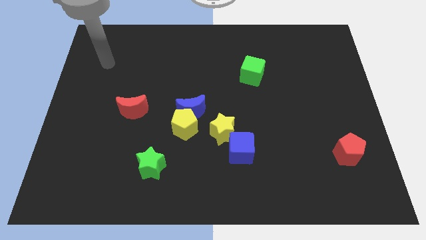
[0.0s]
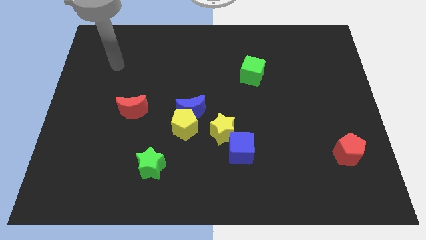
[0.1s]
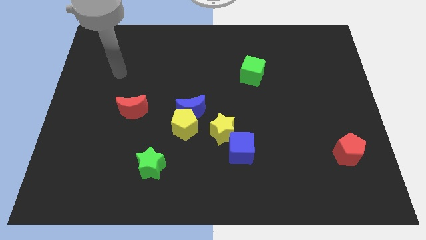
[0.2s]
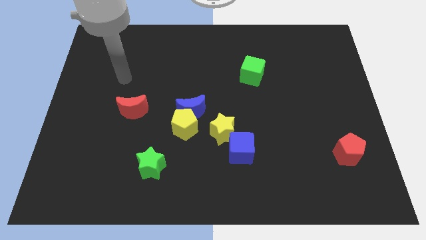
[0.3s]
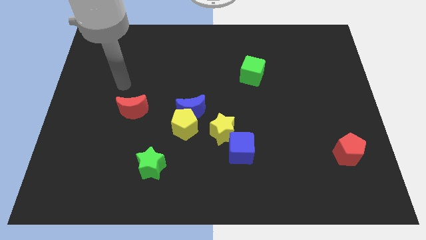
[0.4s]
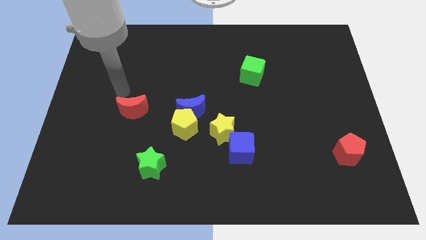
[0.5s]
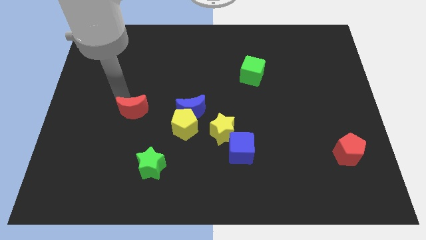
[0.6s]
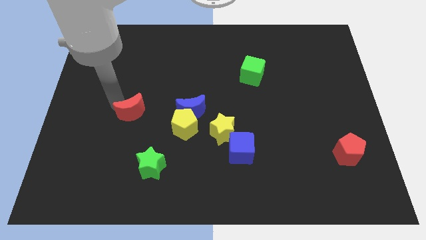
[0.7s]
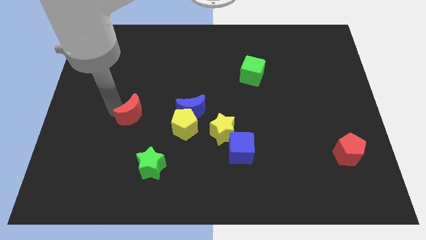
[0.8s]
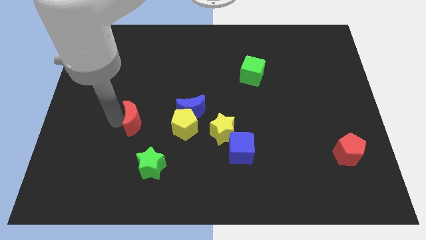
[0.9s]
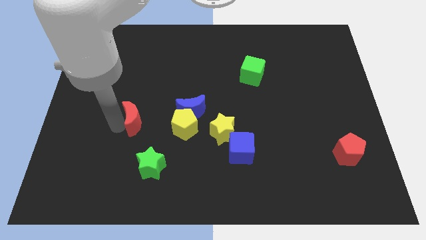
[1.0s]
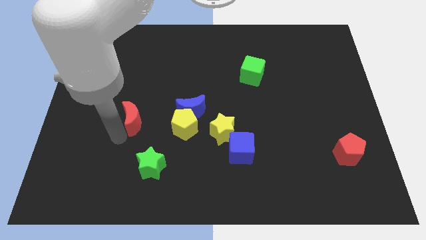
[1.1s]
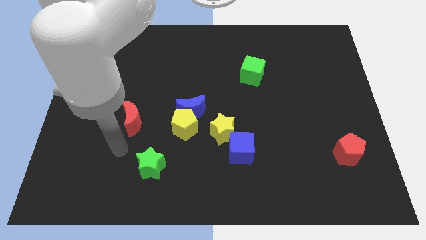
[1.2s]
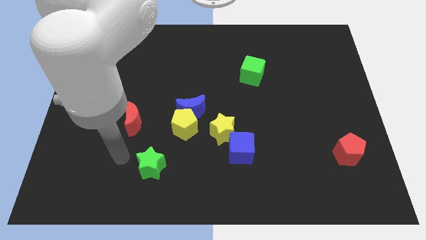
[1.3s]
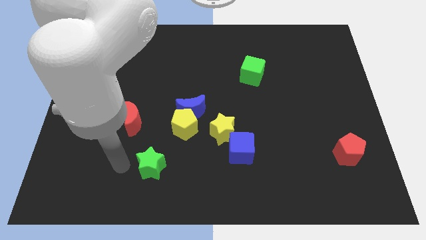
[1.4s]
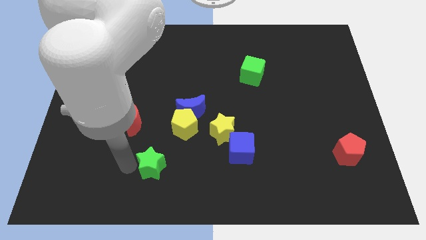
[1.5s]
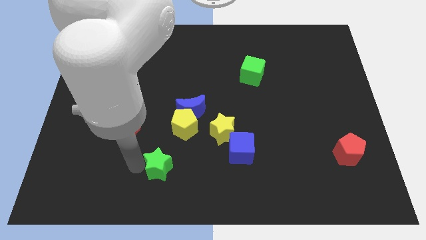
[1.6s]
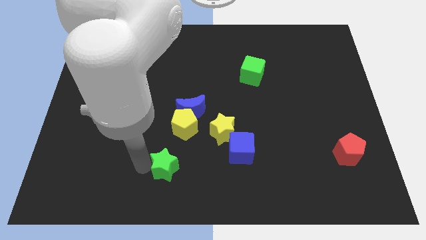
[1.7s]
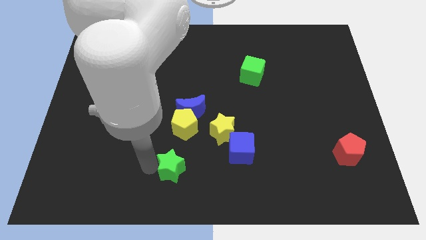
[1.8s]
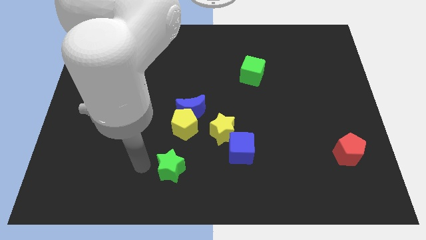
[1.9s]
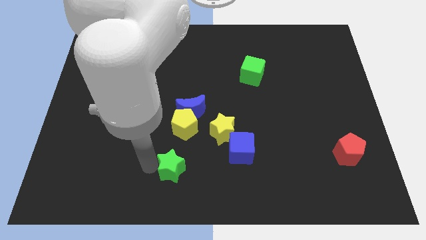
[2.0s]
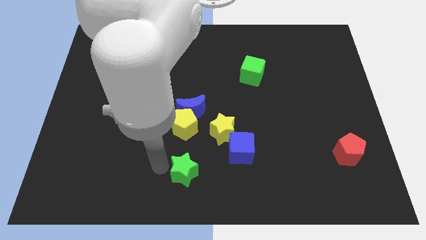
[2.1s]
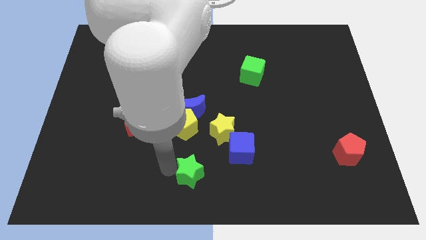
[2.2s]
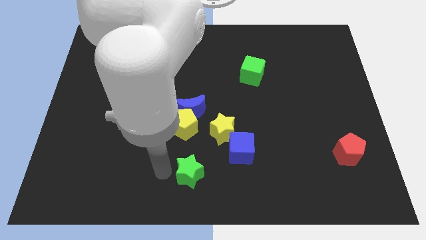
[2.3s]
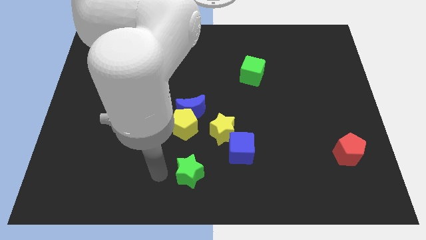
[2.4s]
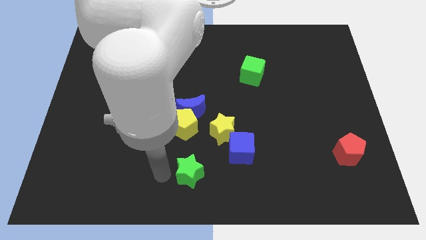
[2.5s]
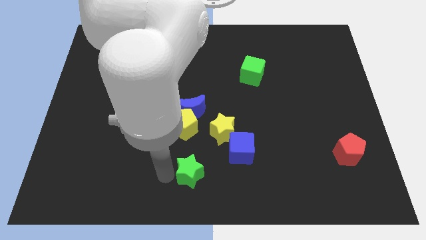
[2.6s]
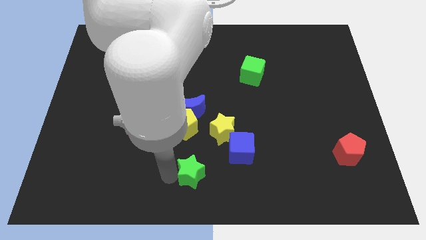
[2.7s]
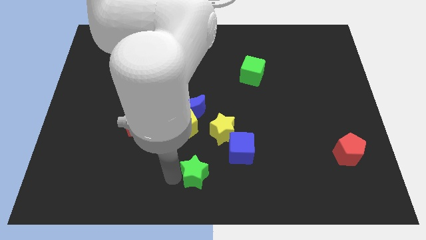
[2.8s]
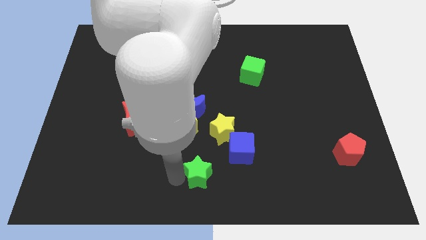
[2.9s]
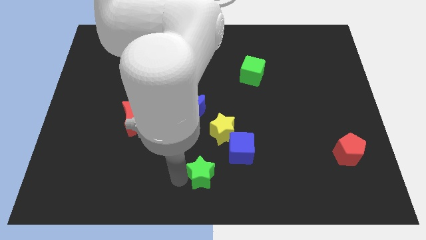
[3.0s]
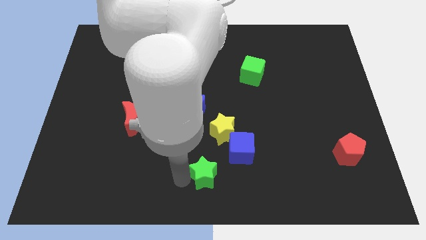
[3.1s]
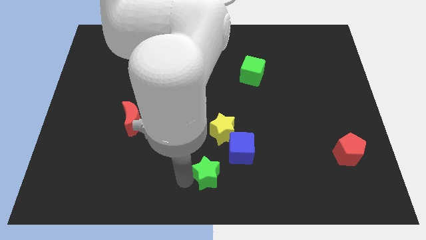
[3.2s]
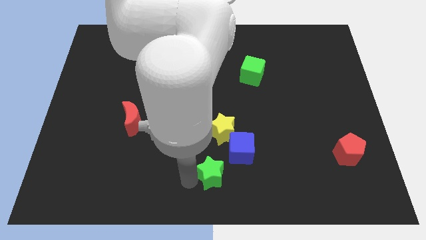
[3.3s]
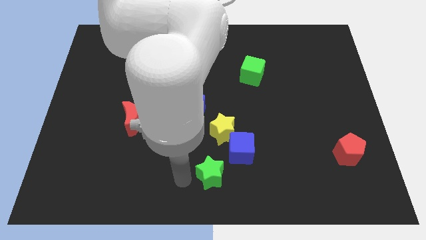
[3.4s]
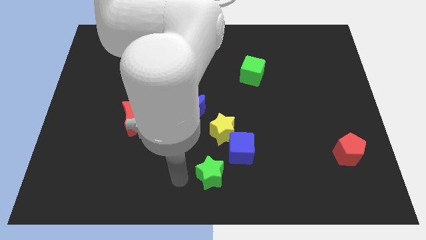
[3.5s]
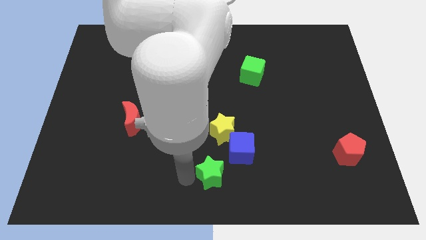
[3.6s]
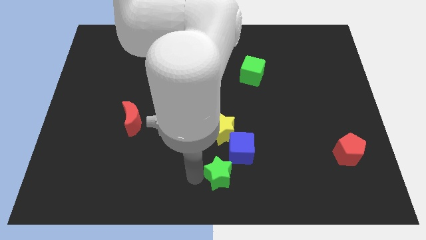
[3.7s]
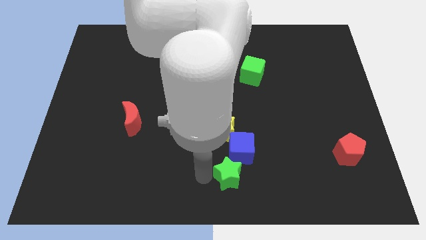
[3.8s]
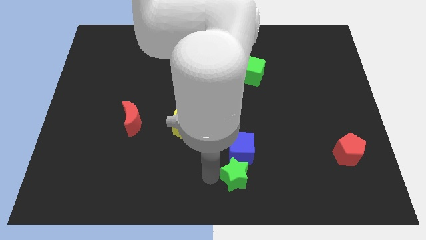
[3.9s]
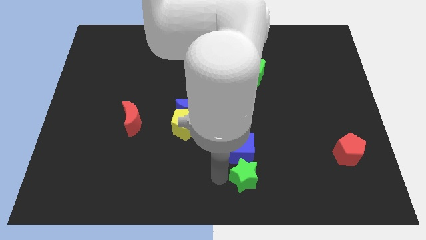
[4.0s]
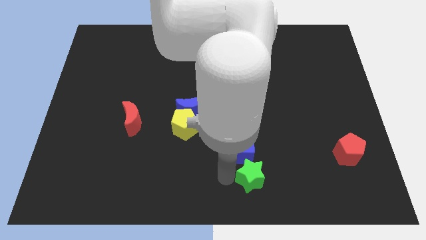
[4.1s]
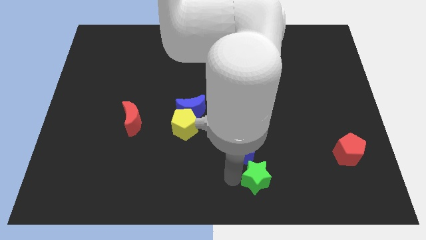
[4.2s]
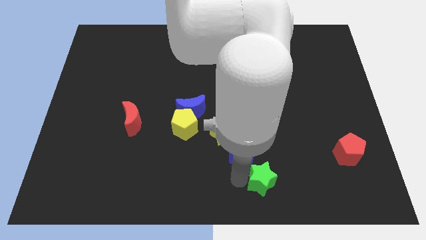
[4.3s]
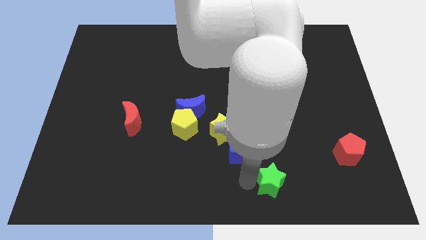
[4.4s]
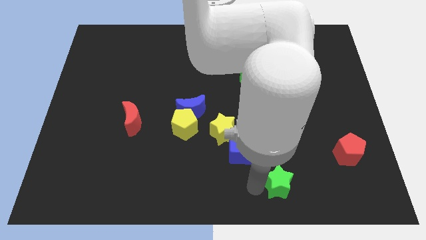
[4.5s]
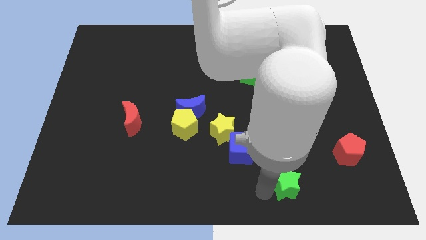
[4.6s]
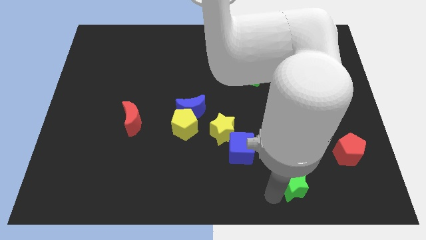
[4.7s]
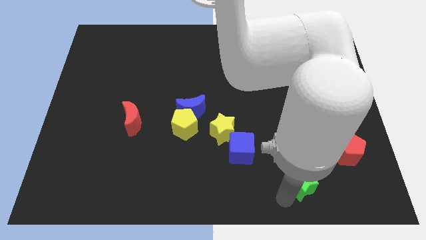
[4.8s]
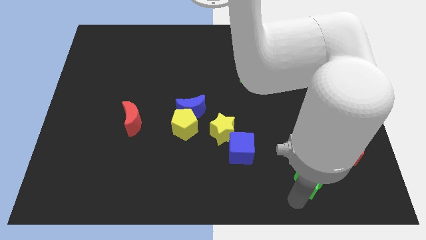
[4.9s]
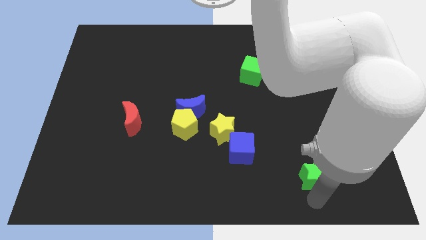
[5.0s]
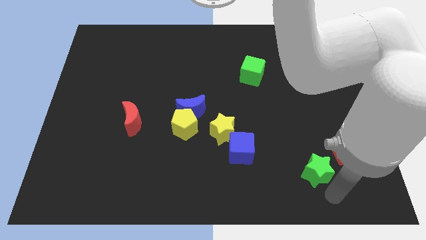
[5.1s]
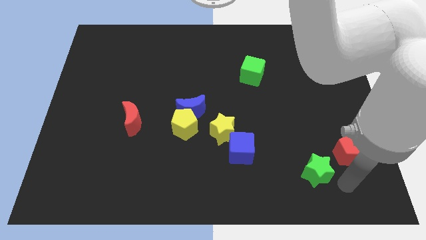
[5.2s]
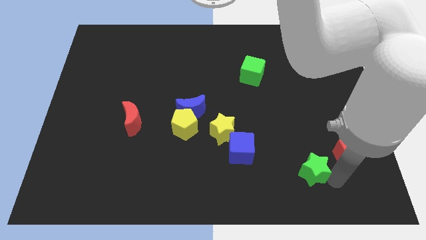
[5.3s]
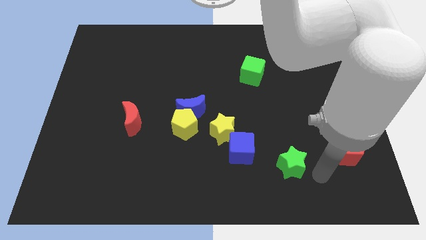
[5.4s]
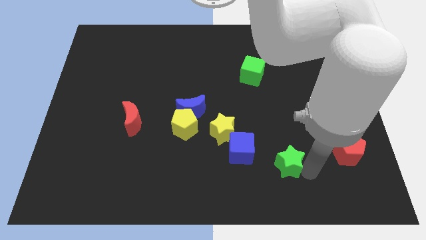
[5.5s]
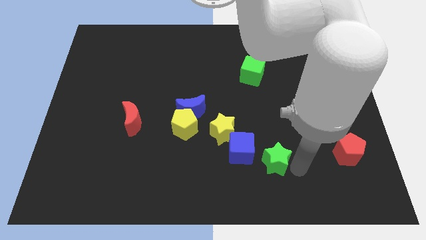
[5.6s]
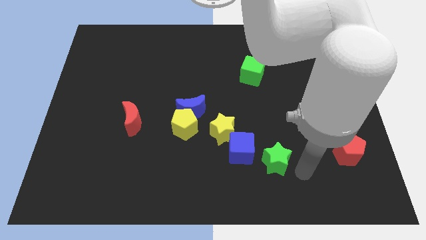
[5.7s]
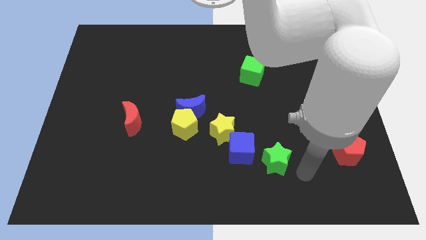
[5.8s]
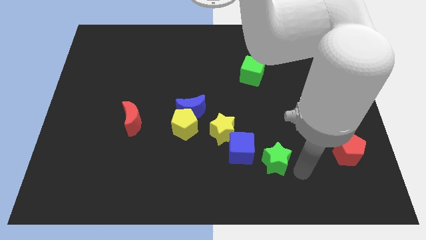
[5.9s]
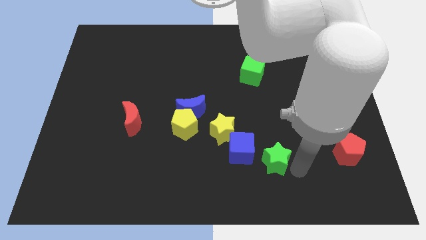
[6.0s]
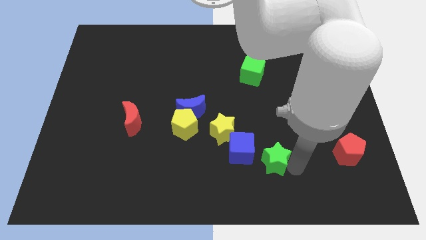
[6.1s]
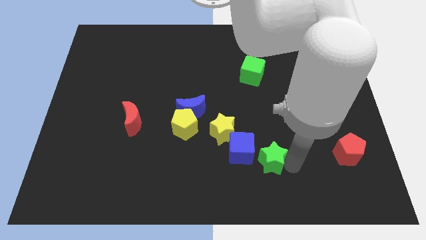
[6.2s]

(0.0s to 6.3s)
put the green star to the bottom right of the yellow star
